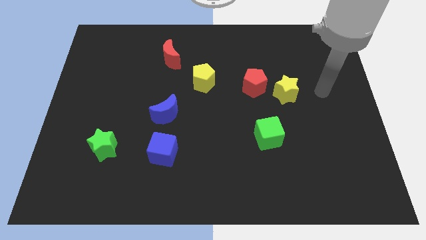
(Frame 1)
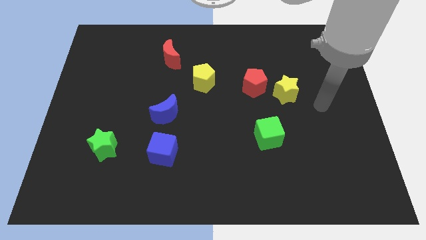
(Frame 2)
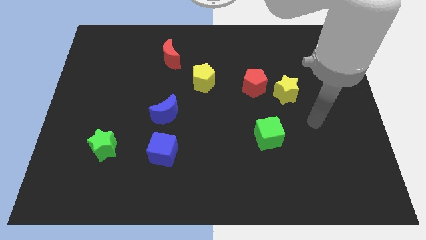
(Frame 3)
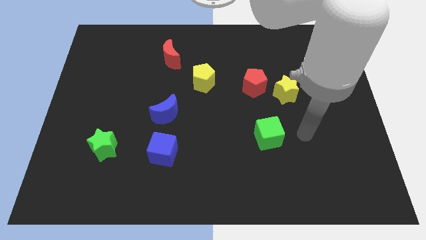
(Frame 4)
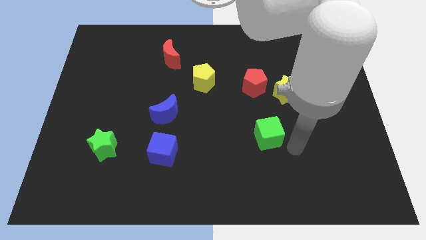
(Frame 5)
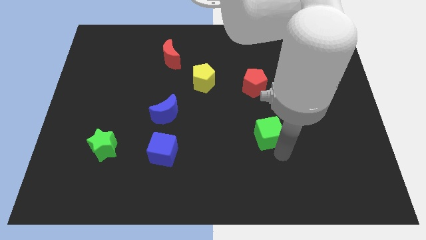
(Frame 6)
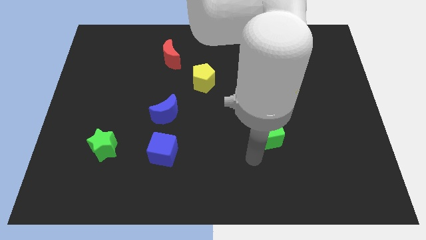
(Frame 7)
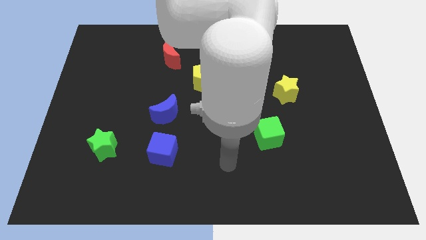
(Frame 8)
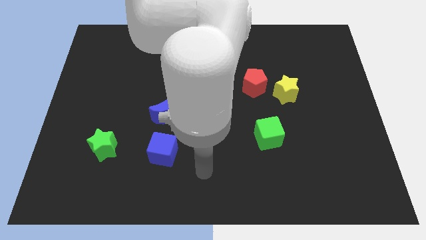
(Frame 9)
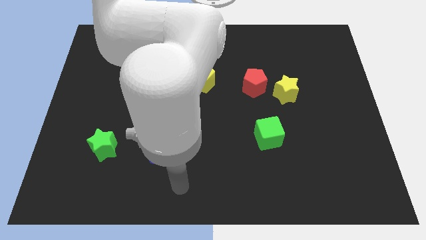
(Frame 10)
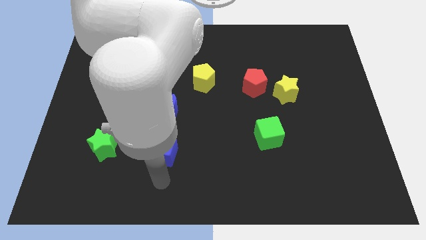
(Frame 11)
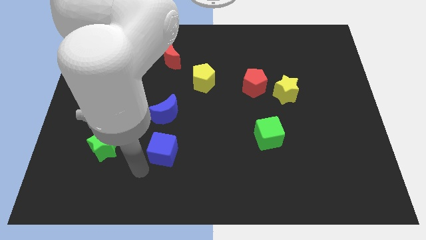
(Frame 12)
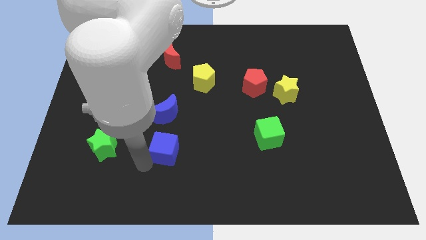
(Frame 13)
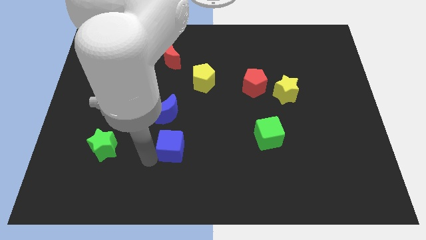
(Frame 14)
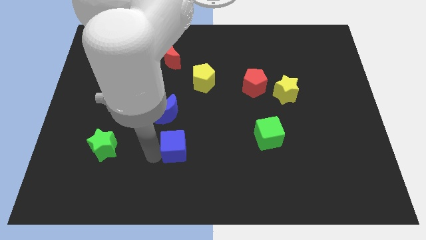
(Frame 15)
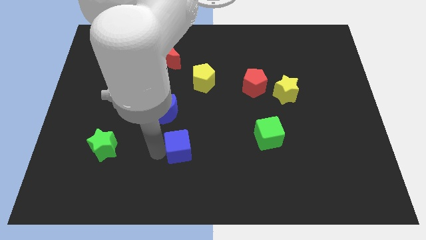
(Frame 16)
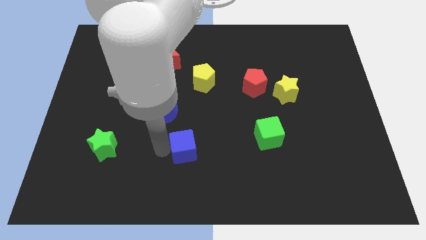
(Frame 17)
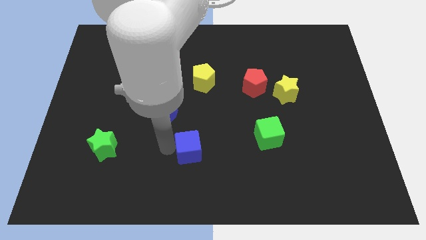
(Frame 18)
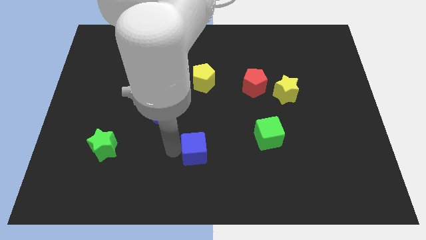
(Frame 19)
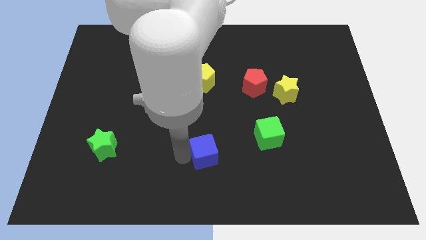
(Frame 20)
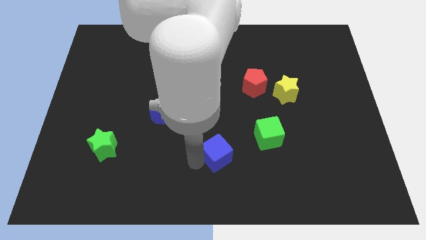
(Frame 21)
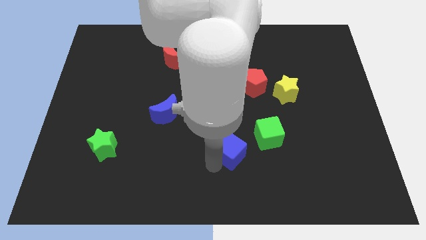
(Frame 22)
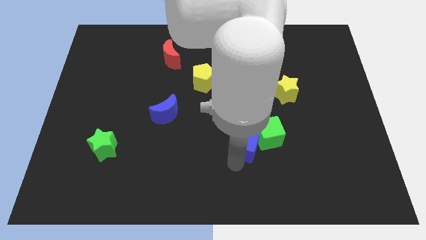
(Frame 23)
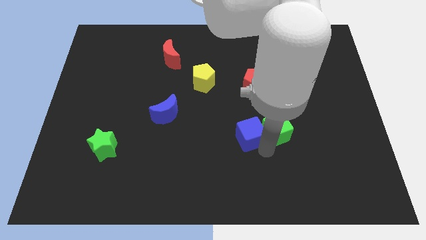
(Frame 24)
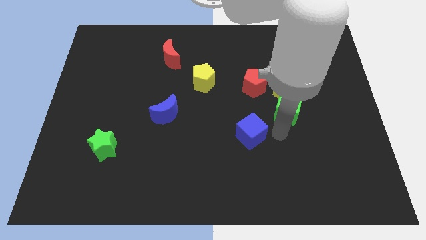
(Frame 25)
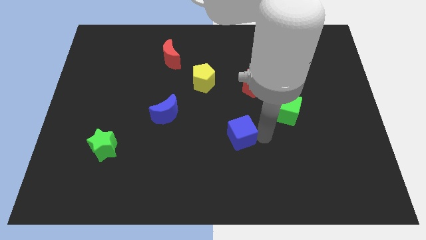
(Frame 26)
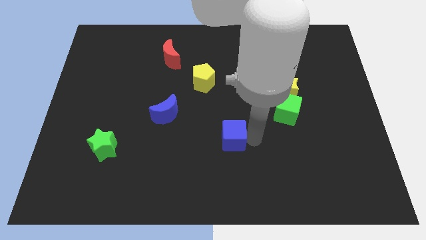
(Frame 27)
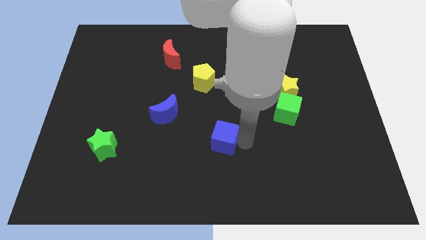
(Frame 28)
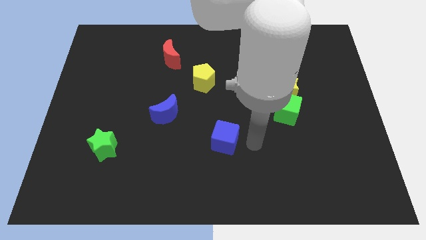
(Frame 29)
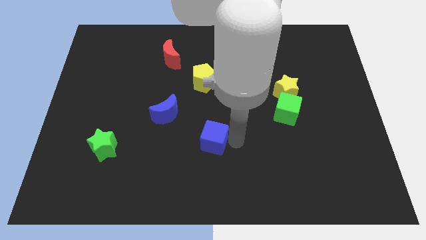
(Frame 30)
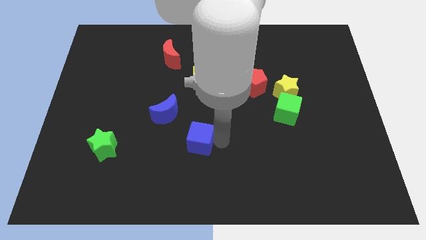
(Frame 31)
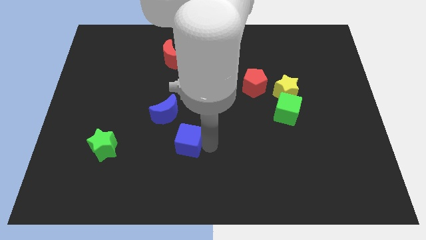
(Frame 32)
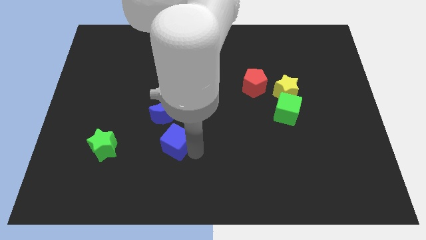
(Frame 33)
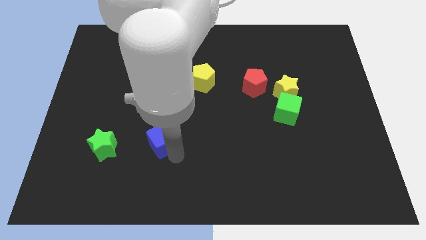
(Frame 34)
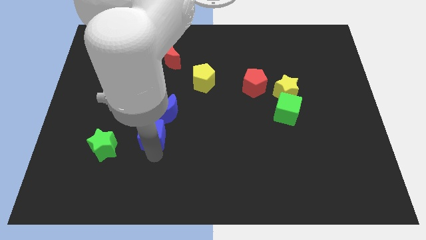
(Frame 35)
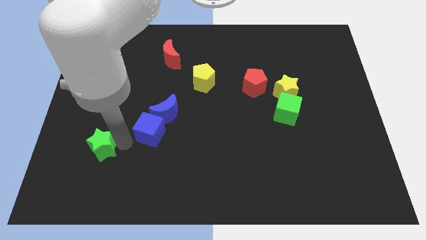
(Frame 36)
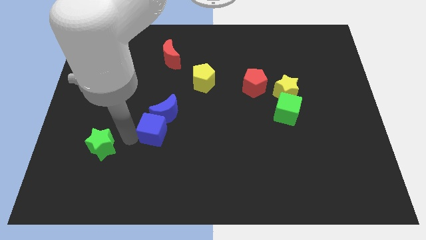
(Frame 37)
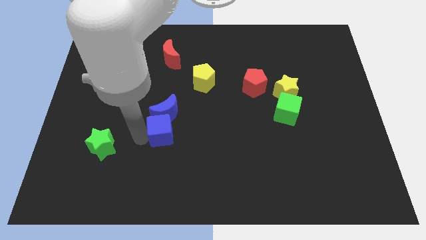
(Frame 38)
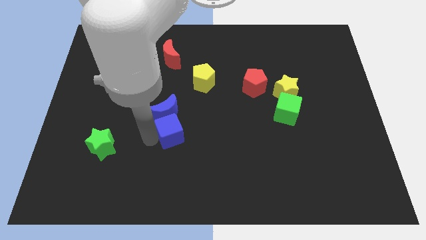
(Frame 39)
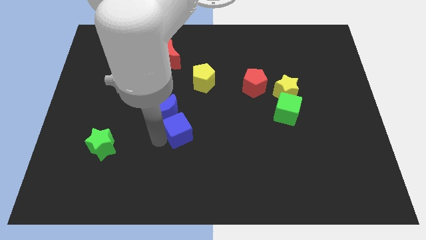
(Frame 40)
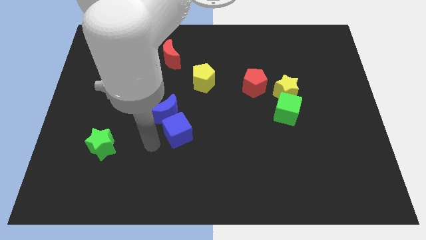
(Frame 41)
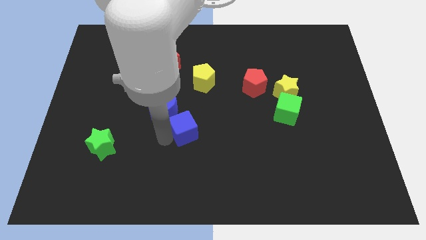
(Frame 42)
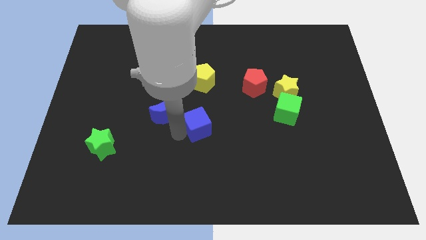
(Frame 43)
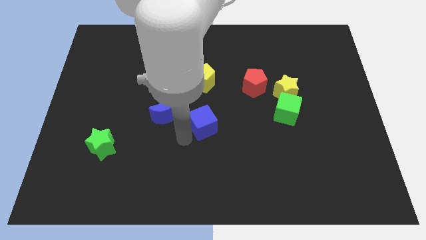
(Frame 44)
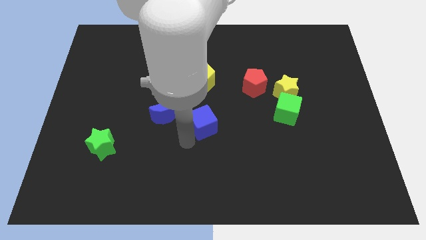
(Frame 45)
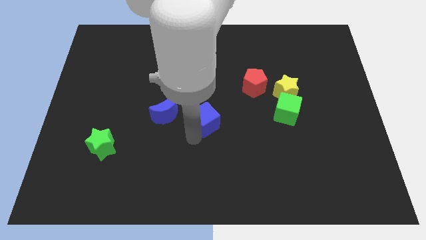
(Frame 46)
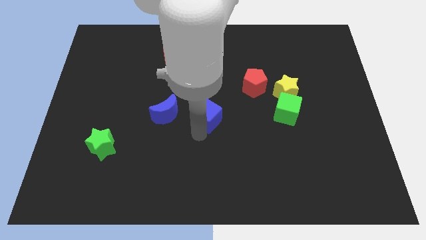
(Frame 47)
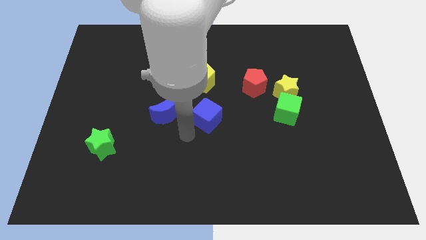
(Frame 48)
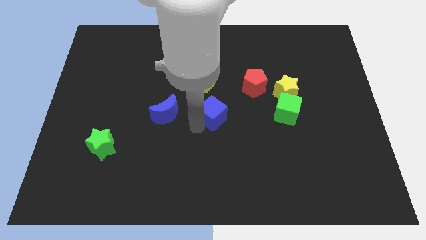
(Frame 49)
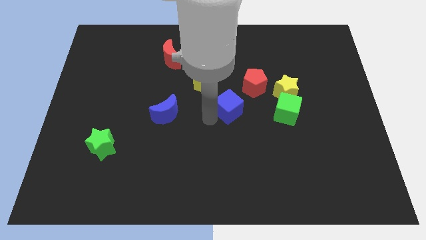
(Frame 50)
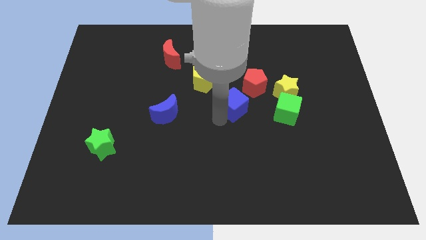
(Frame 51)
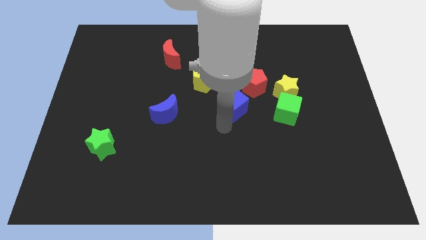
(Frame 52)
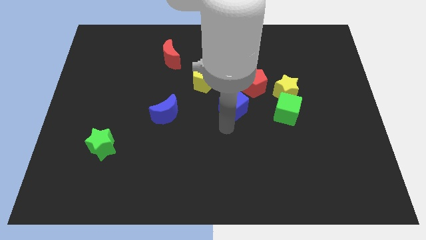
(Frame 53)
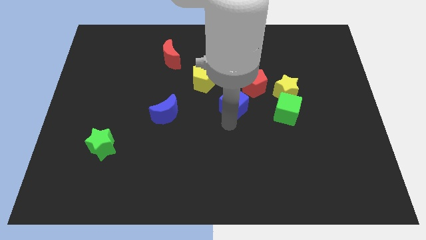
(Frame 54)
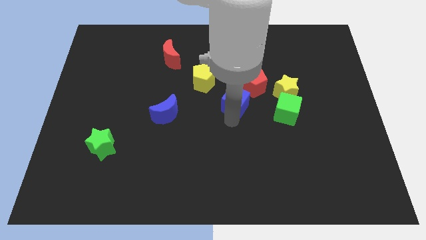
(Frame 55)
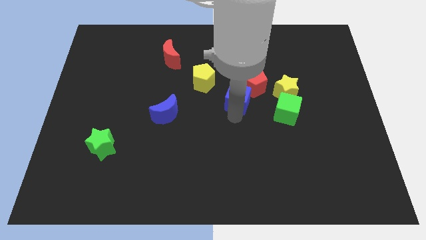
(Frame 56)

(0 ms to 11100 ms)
put the blue cube close to the red pentagon
